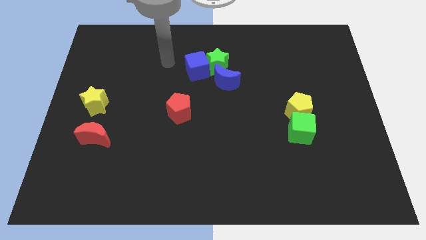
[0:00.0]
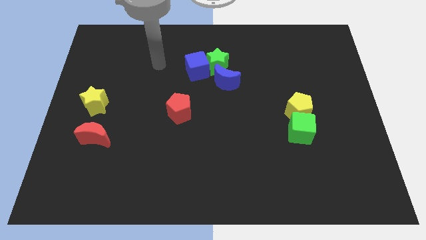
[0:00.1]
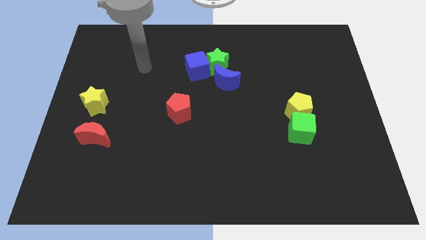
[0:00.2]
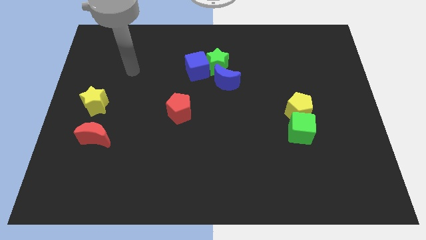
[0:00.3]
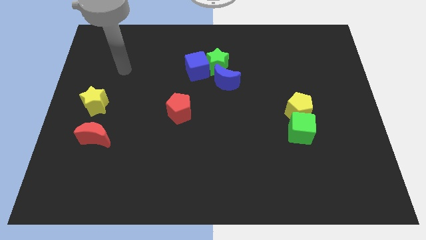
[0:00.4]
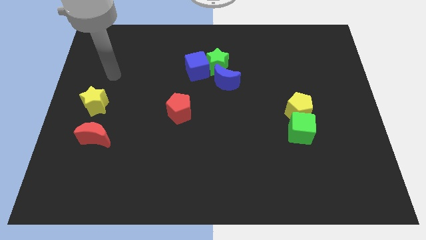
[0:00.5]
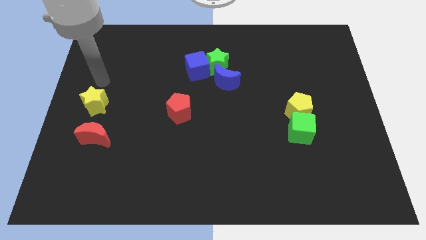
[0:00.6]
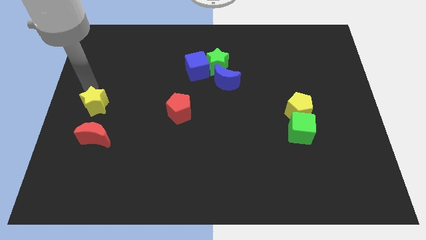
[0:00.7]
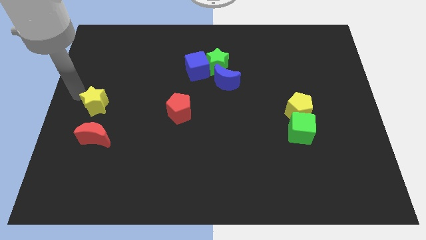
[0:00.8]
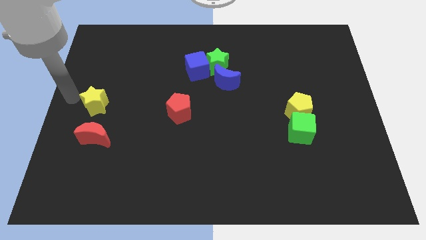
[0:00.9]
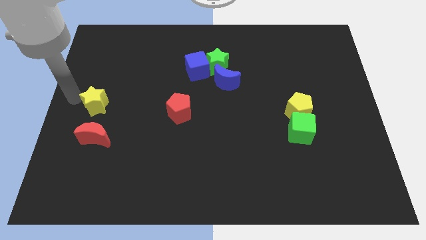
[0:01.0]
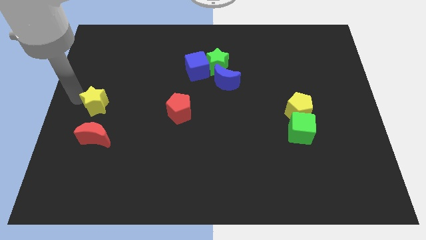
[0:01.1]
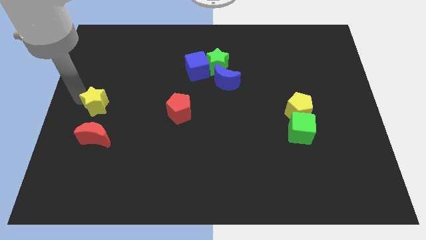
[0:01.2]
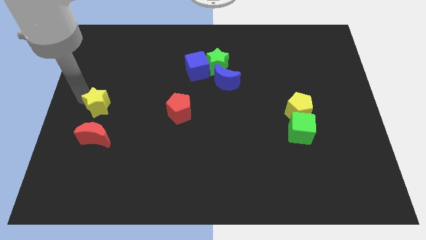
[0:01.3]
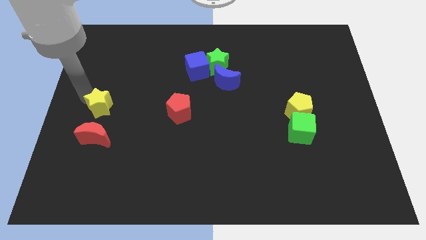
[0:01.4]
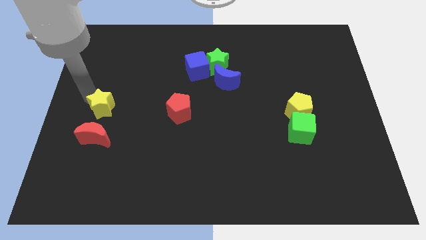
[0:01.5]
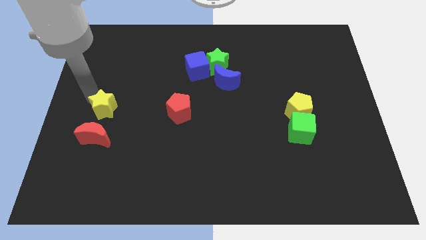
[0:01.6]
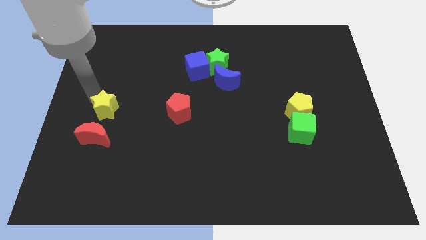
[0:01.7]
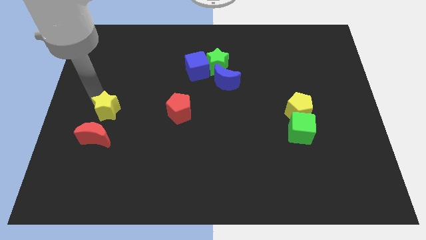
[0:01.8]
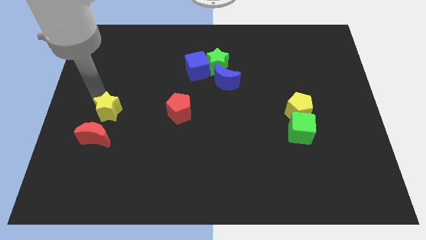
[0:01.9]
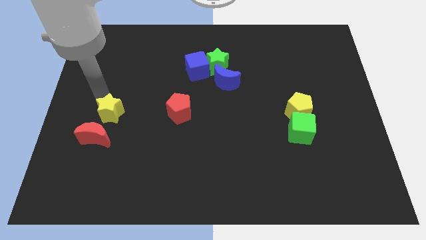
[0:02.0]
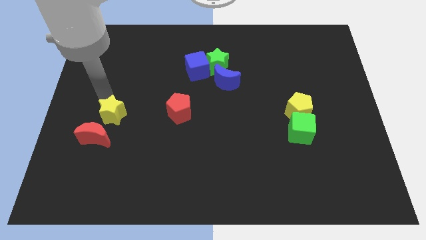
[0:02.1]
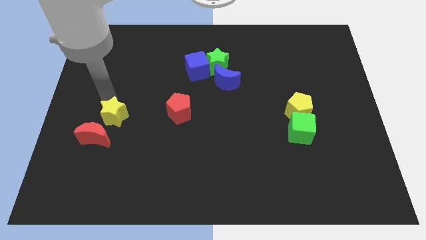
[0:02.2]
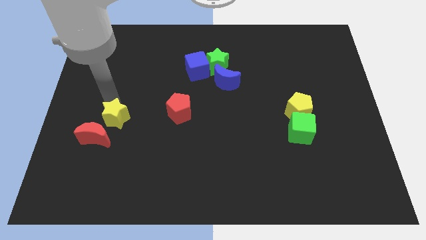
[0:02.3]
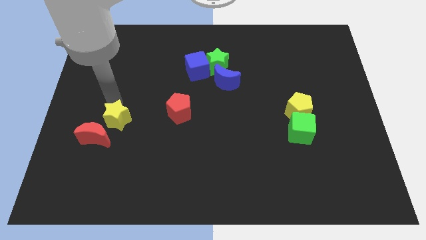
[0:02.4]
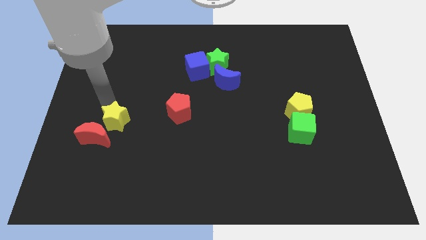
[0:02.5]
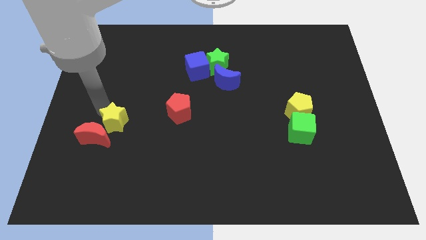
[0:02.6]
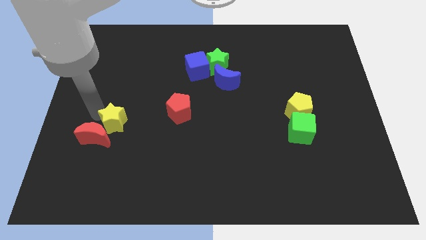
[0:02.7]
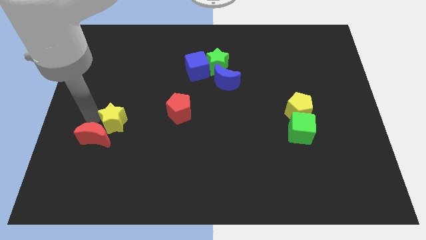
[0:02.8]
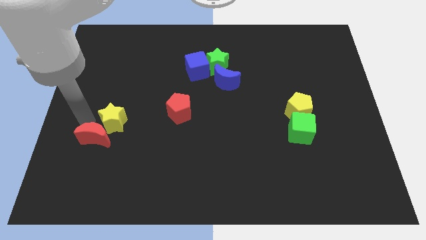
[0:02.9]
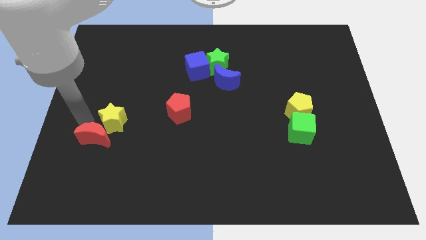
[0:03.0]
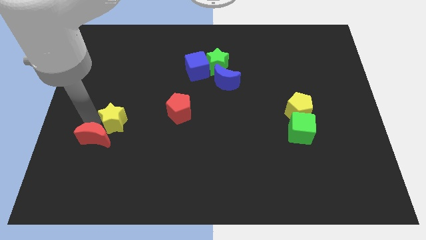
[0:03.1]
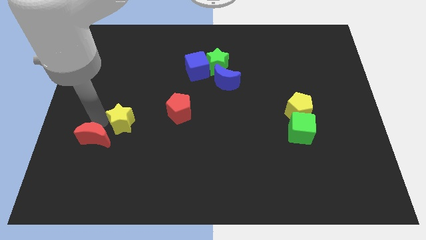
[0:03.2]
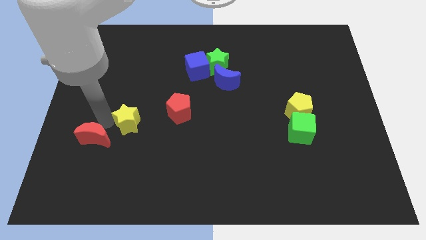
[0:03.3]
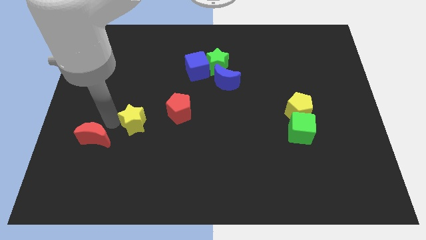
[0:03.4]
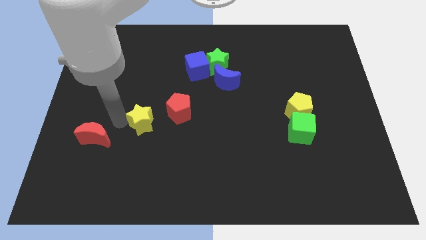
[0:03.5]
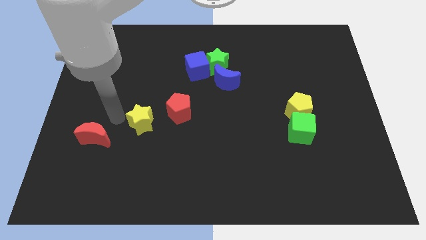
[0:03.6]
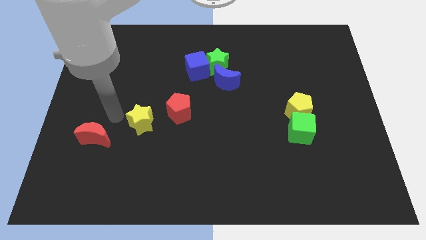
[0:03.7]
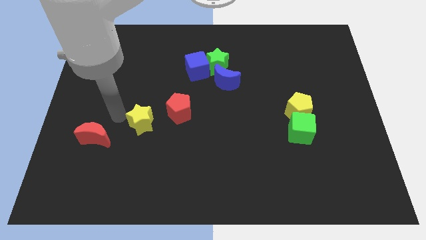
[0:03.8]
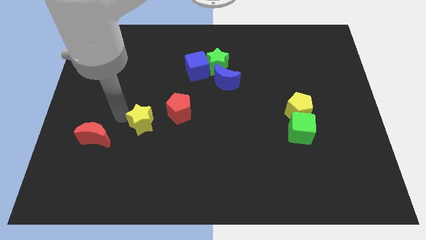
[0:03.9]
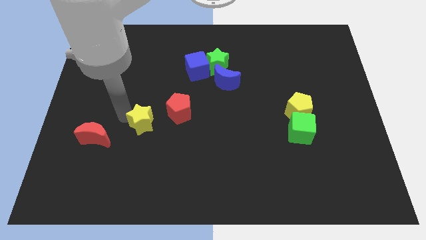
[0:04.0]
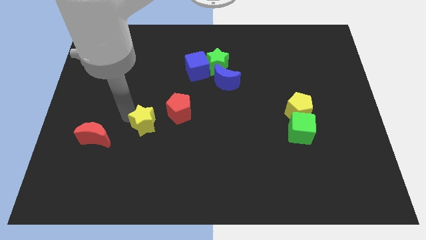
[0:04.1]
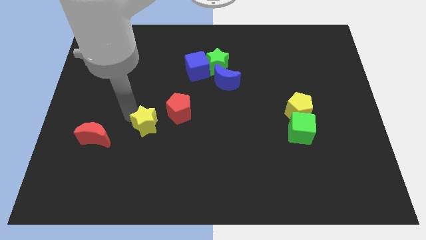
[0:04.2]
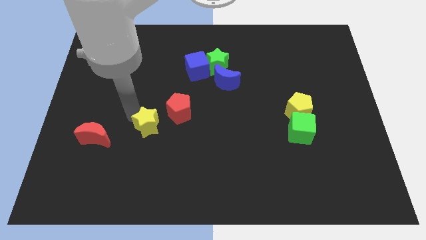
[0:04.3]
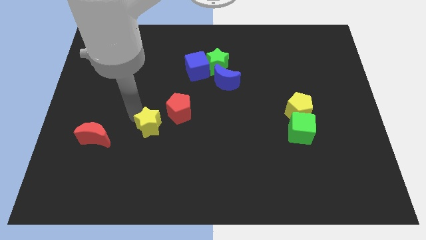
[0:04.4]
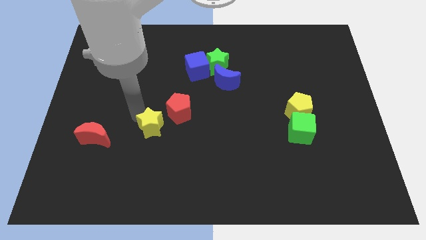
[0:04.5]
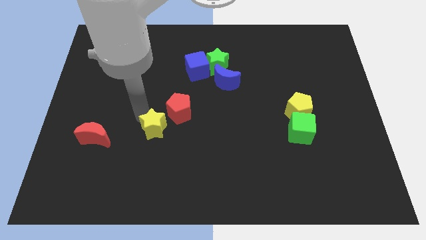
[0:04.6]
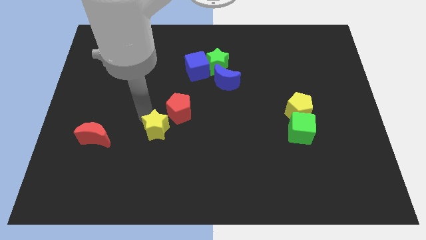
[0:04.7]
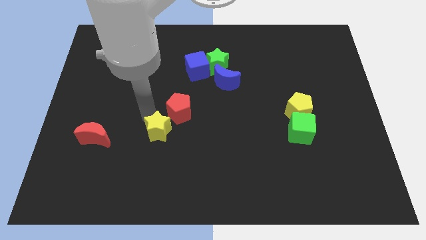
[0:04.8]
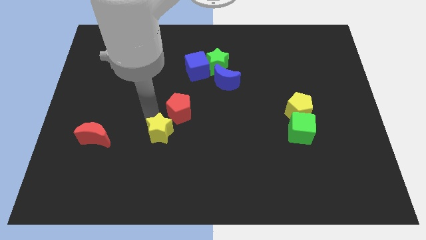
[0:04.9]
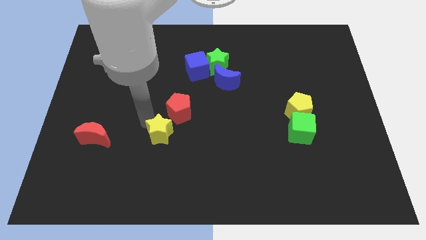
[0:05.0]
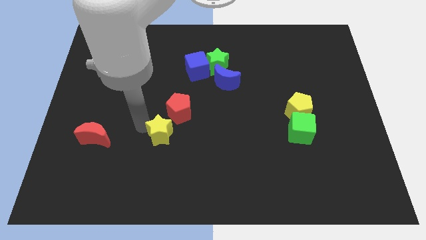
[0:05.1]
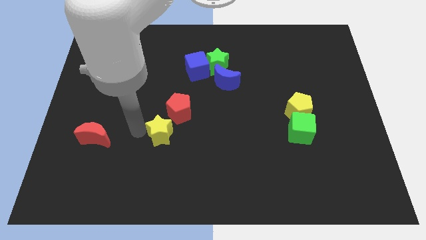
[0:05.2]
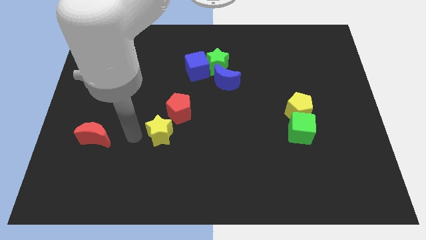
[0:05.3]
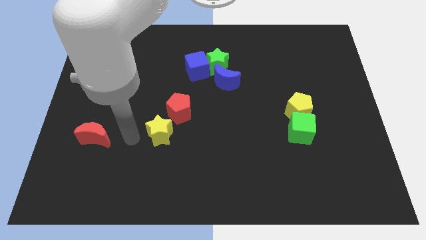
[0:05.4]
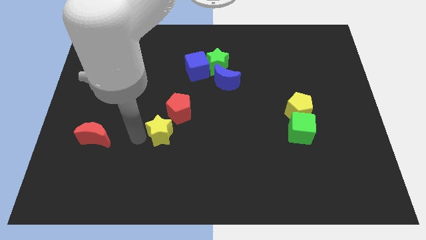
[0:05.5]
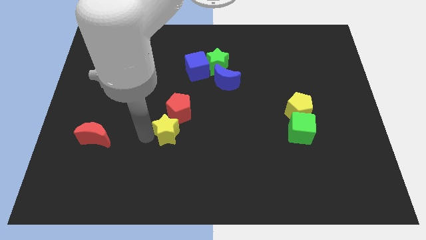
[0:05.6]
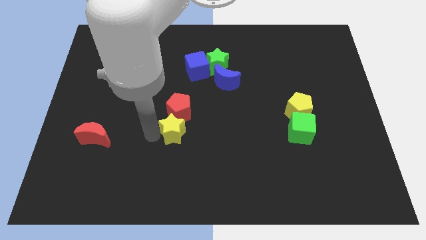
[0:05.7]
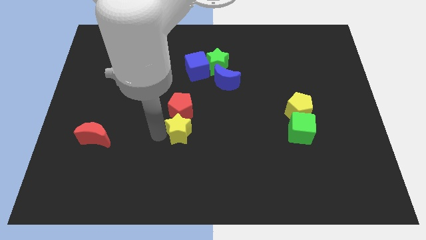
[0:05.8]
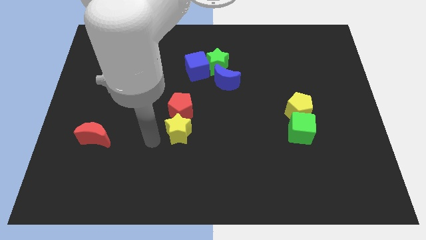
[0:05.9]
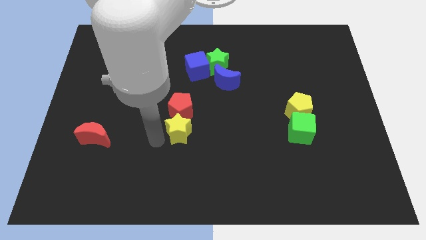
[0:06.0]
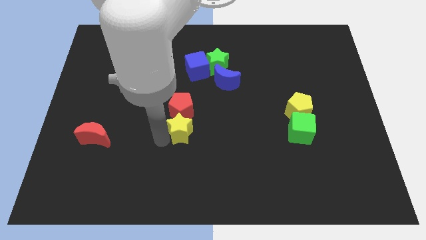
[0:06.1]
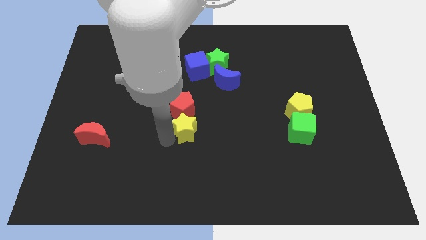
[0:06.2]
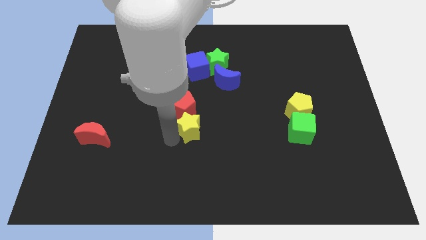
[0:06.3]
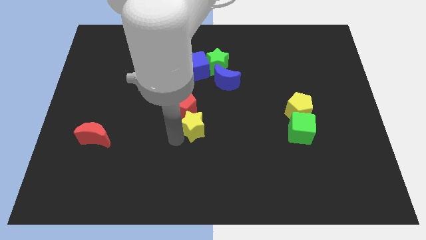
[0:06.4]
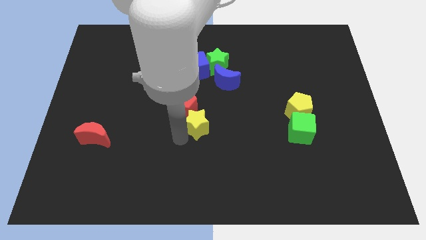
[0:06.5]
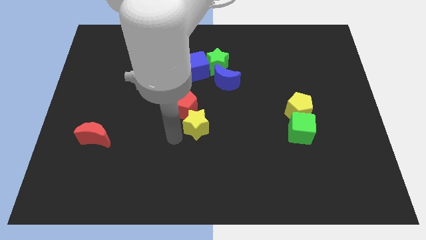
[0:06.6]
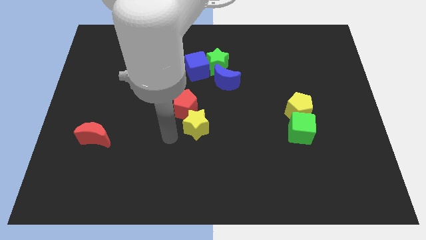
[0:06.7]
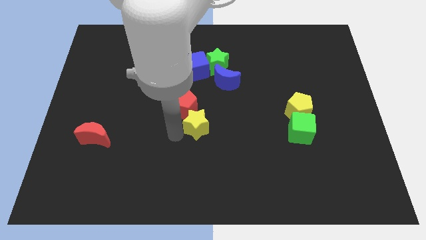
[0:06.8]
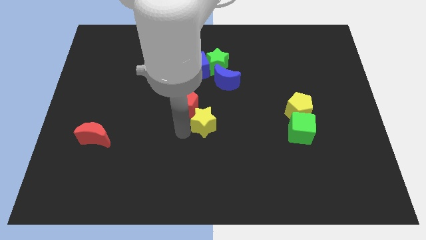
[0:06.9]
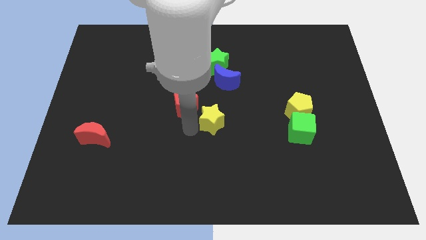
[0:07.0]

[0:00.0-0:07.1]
put the yellow star to the bottom of the blue moon

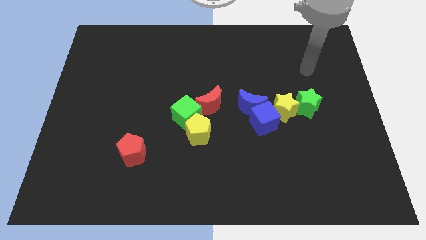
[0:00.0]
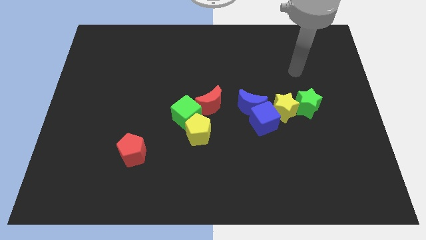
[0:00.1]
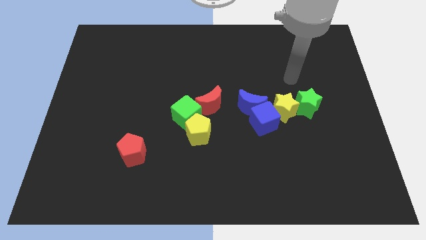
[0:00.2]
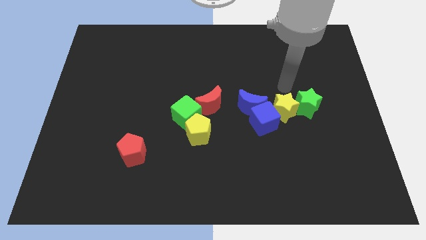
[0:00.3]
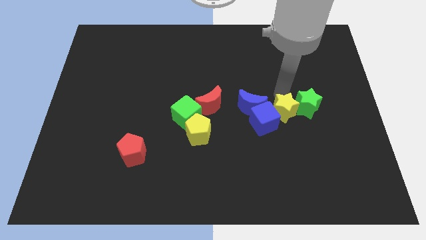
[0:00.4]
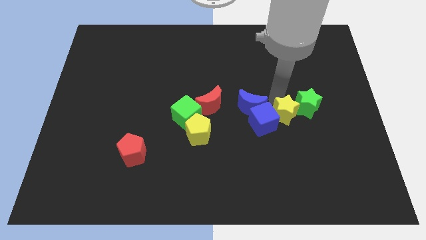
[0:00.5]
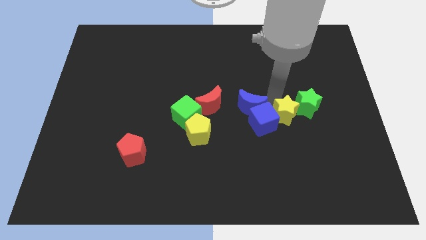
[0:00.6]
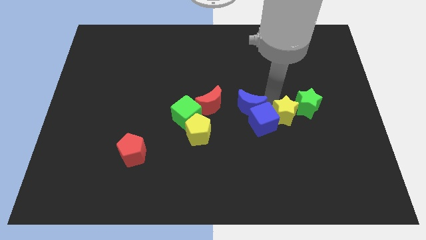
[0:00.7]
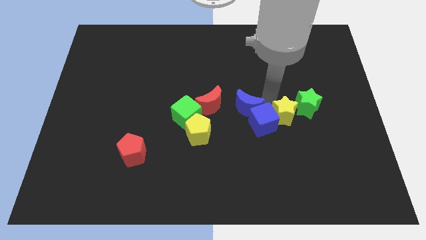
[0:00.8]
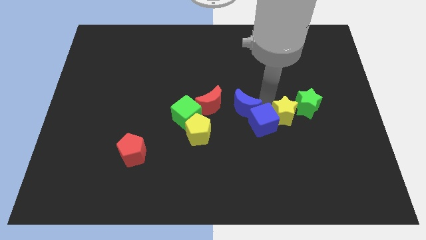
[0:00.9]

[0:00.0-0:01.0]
slide the blue moon to the top right of the yellow pentagon
